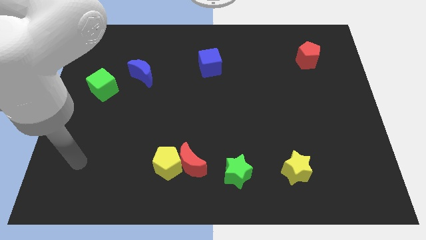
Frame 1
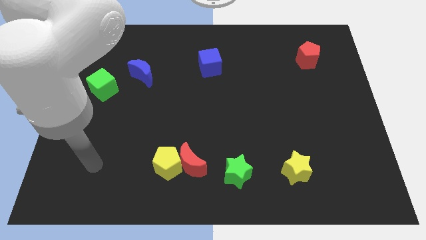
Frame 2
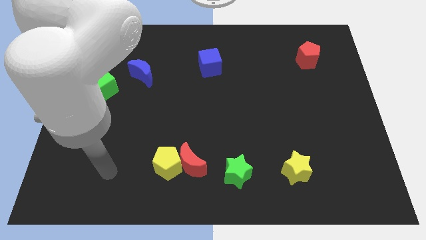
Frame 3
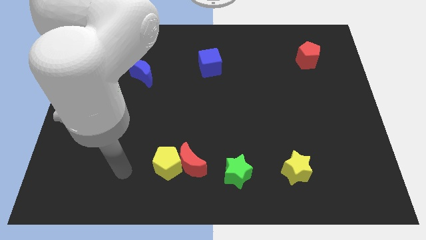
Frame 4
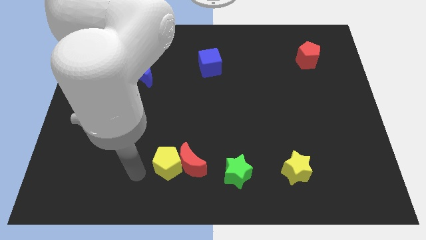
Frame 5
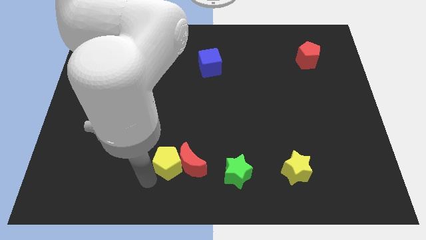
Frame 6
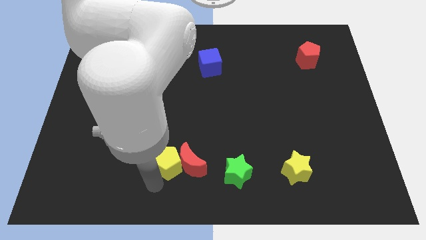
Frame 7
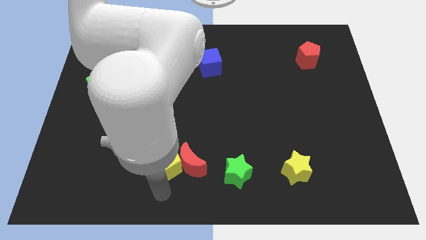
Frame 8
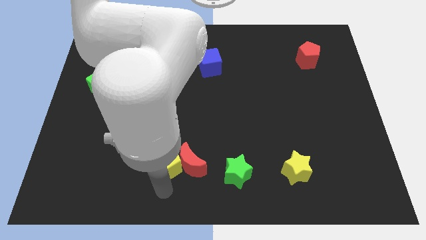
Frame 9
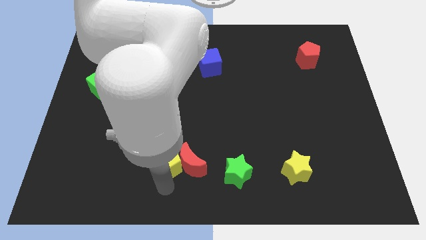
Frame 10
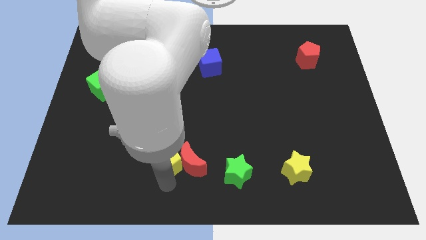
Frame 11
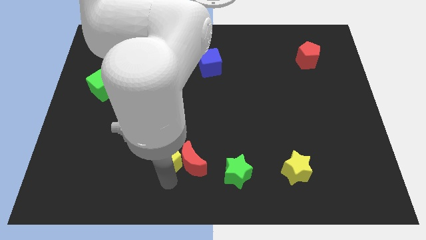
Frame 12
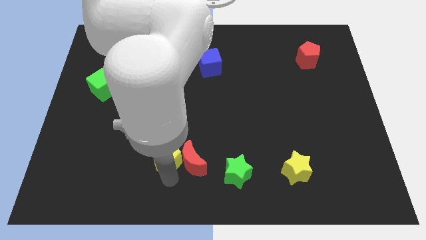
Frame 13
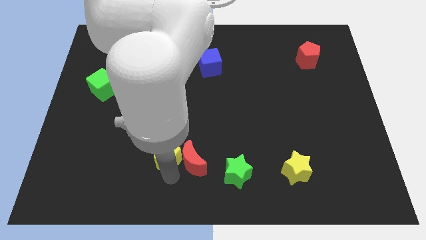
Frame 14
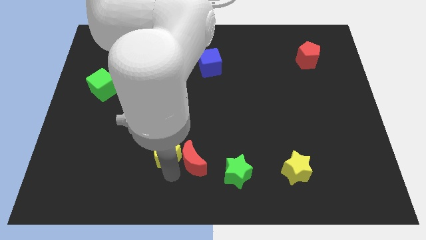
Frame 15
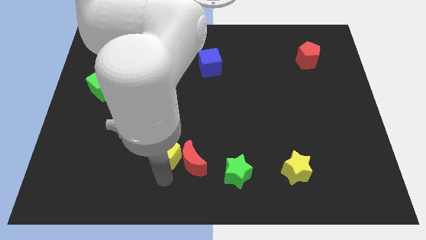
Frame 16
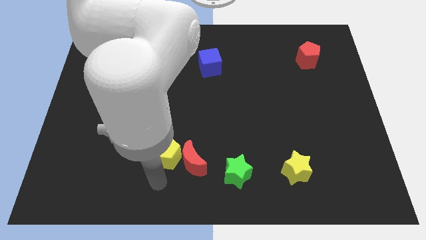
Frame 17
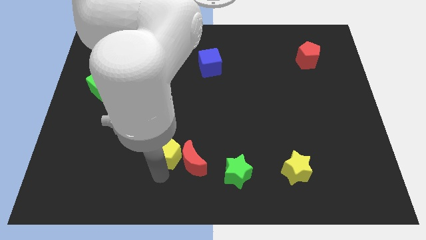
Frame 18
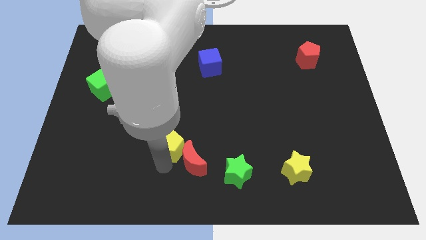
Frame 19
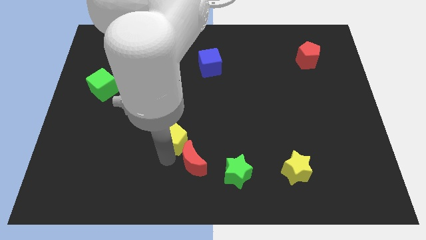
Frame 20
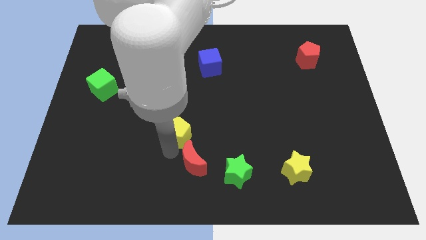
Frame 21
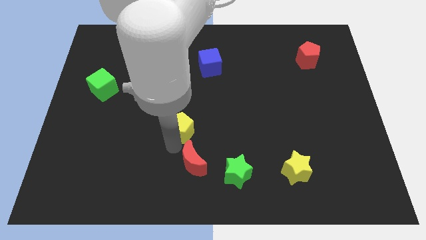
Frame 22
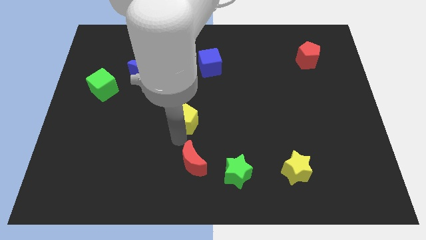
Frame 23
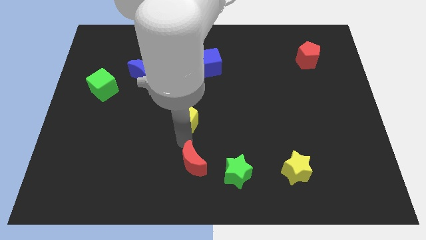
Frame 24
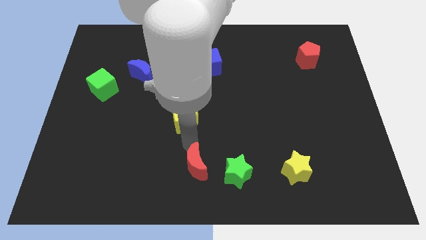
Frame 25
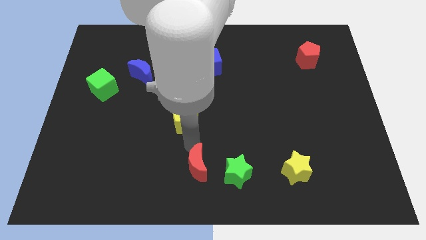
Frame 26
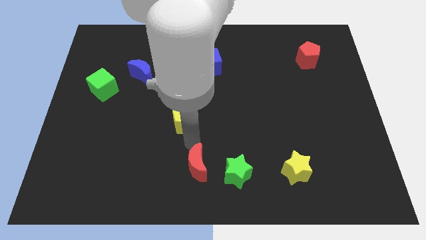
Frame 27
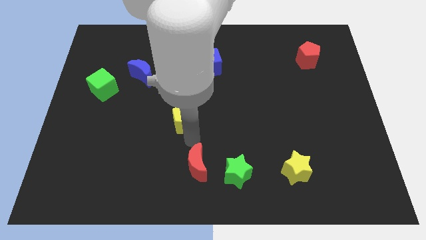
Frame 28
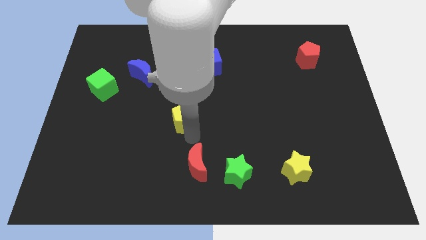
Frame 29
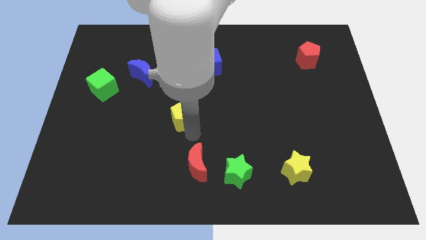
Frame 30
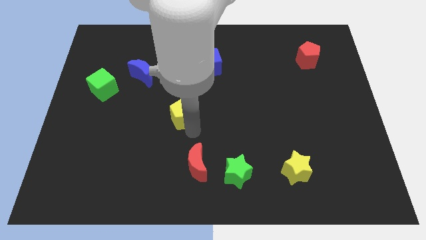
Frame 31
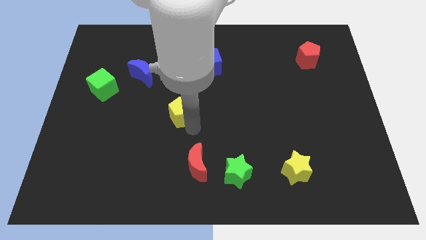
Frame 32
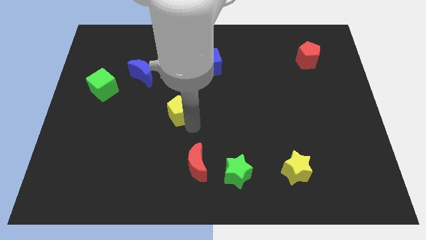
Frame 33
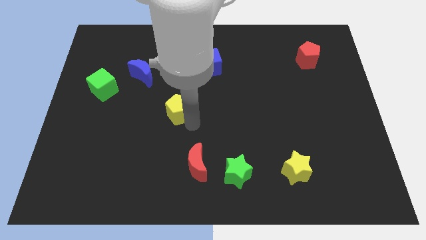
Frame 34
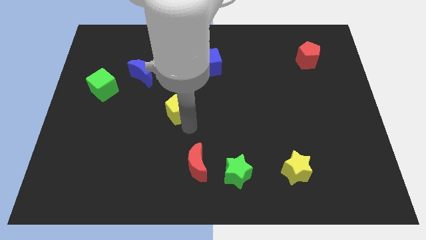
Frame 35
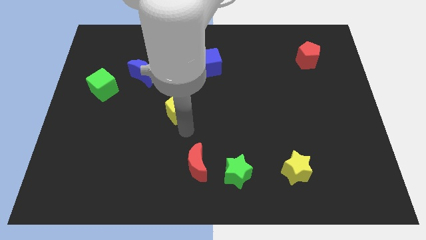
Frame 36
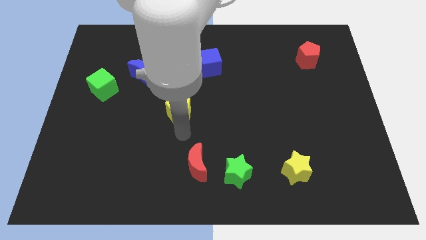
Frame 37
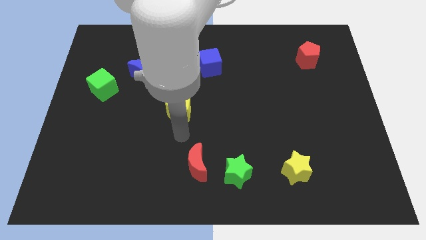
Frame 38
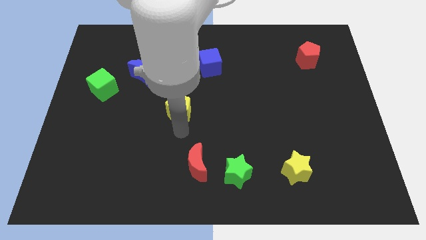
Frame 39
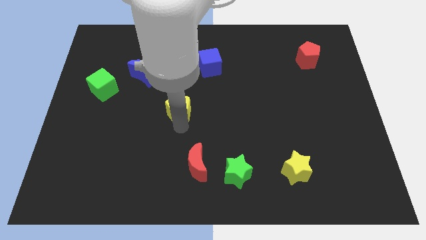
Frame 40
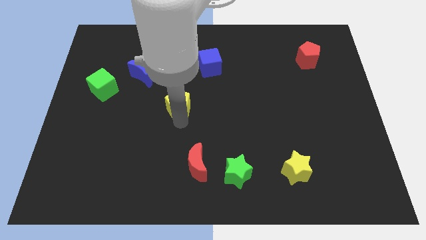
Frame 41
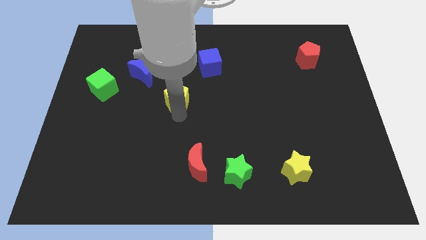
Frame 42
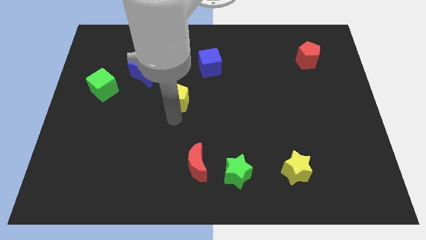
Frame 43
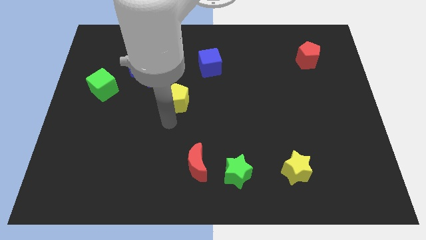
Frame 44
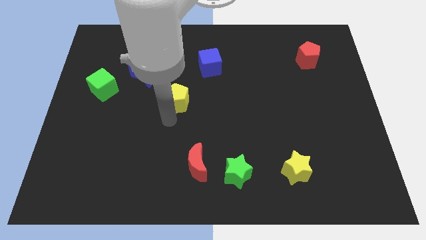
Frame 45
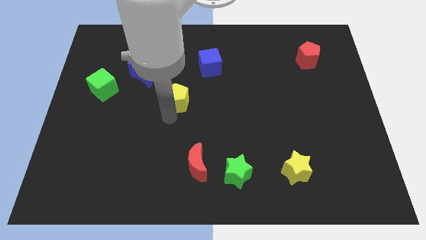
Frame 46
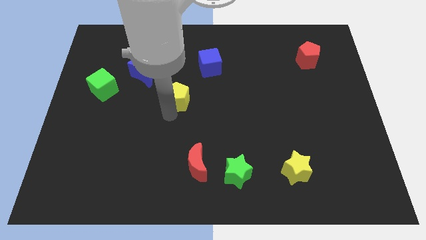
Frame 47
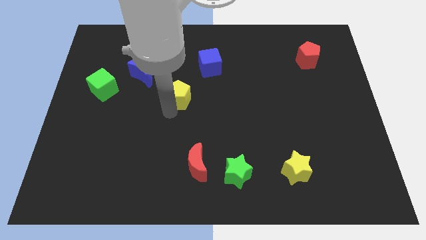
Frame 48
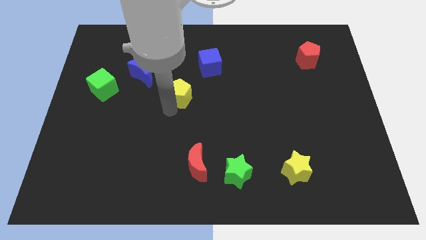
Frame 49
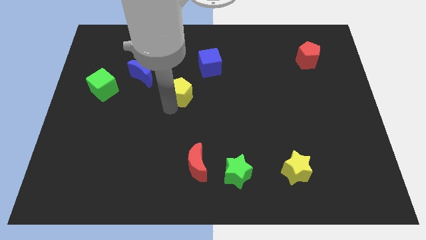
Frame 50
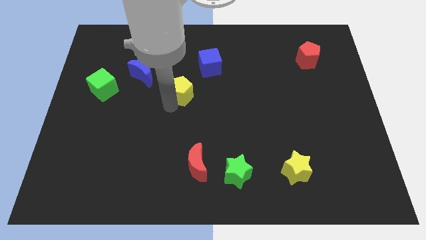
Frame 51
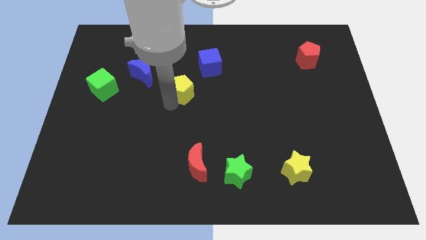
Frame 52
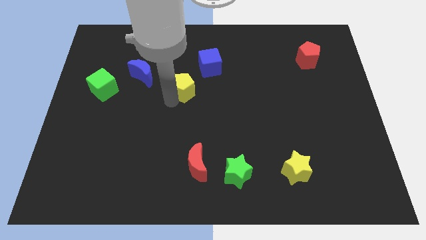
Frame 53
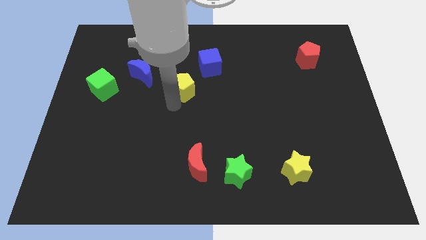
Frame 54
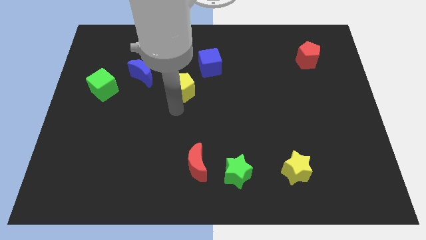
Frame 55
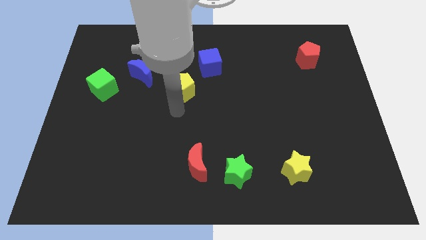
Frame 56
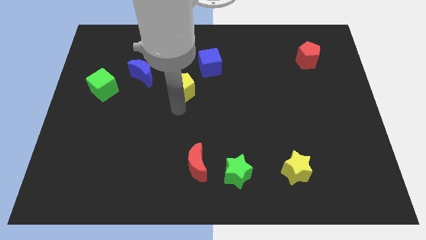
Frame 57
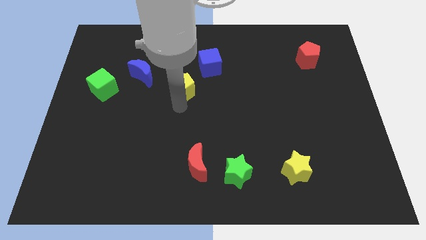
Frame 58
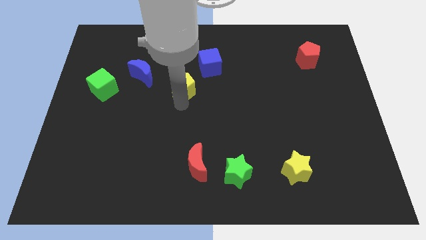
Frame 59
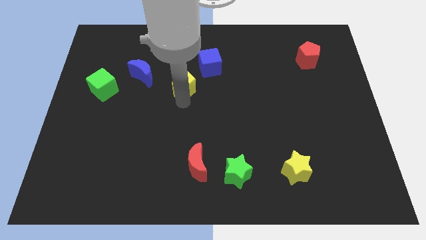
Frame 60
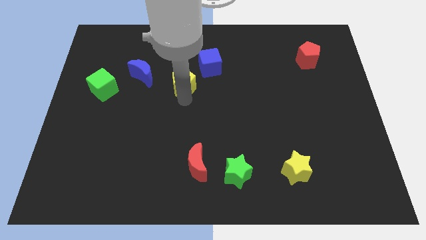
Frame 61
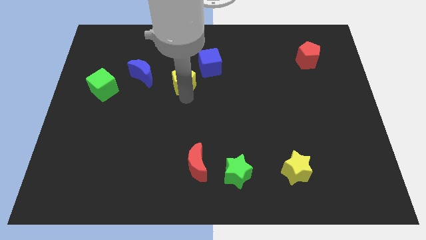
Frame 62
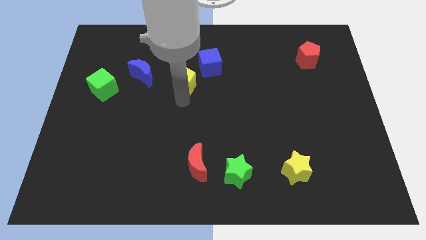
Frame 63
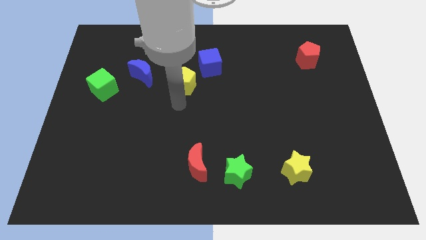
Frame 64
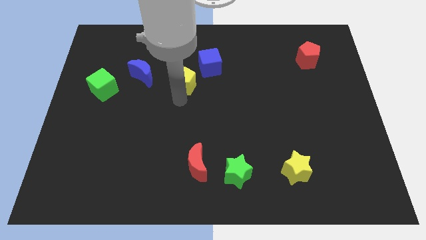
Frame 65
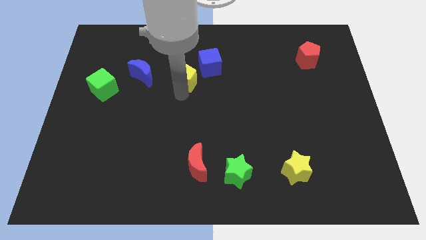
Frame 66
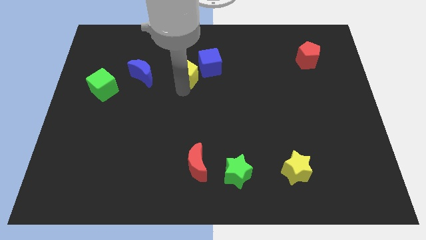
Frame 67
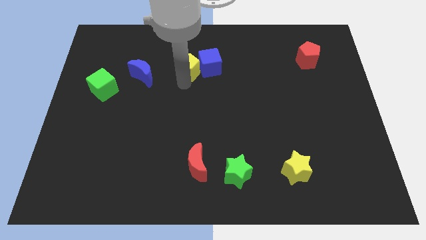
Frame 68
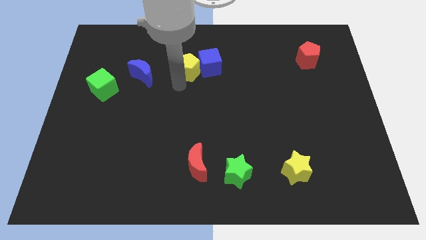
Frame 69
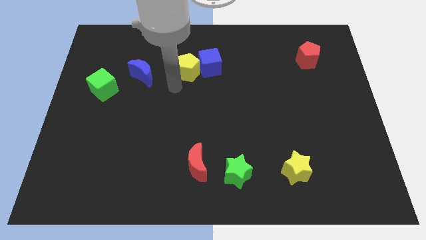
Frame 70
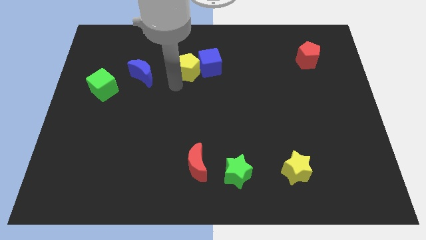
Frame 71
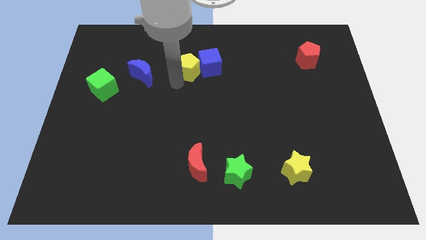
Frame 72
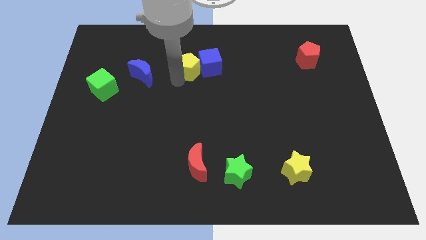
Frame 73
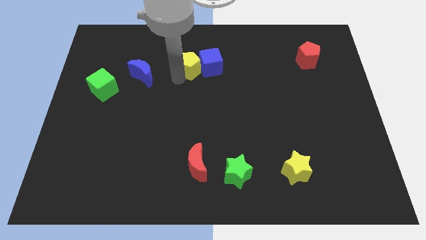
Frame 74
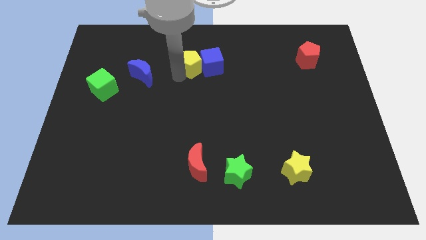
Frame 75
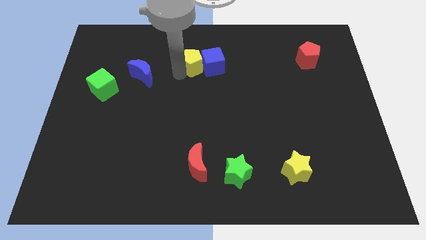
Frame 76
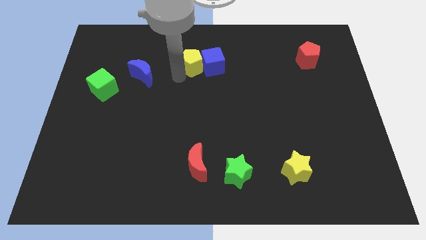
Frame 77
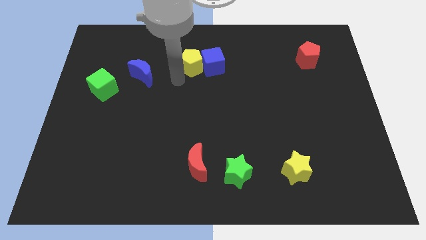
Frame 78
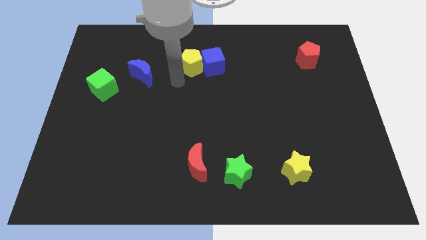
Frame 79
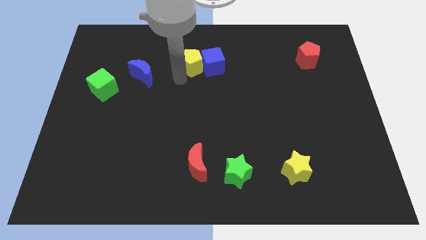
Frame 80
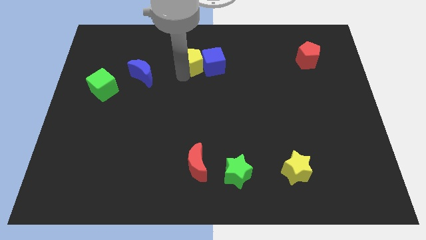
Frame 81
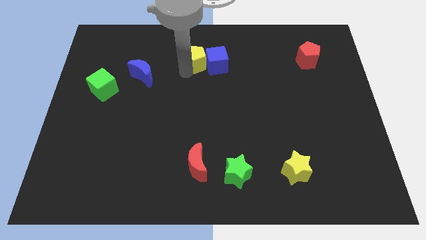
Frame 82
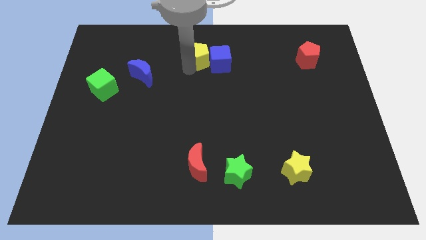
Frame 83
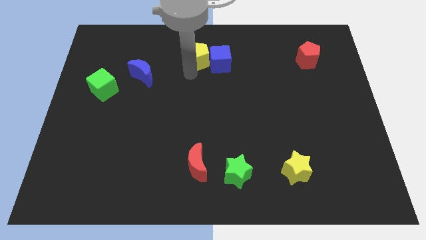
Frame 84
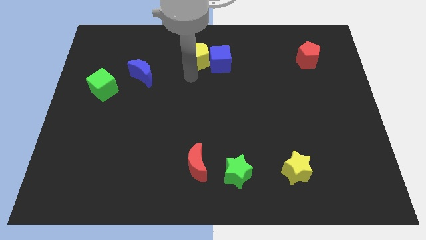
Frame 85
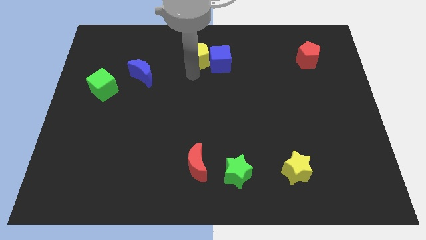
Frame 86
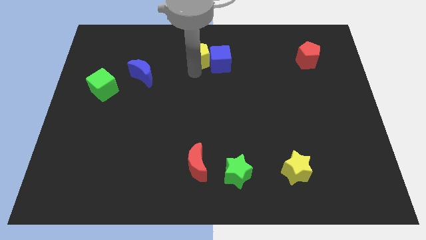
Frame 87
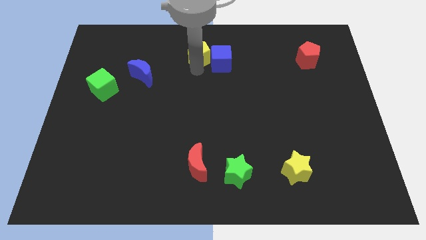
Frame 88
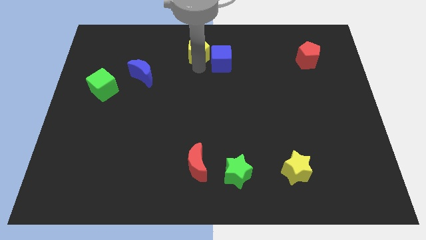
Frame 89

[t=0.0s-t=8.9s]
put the yellow pentagon to the top side
